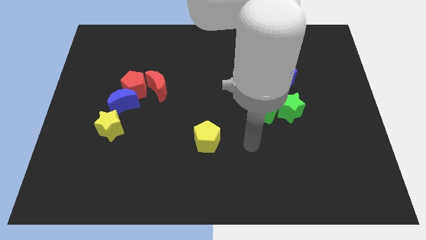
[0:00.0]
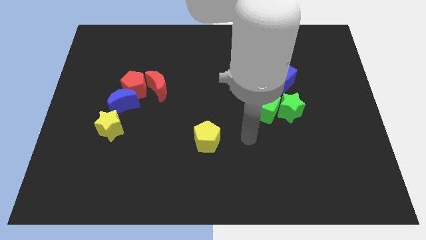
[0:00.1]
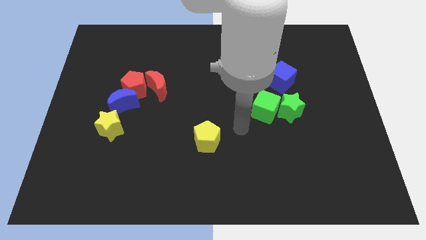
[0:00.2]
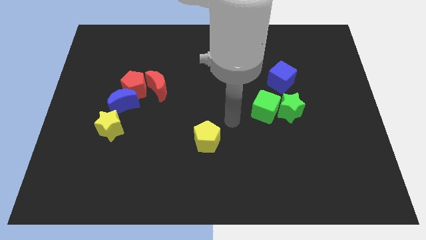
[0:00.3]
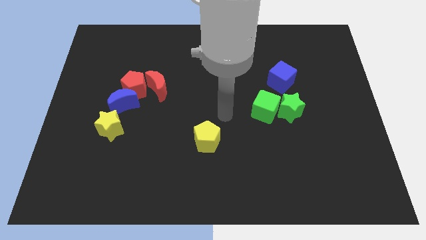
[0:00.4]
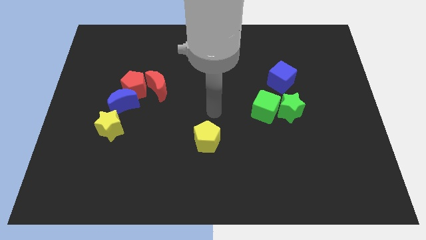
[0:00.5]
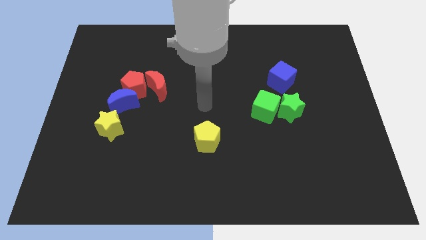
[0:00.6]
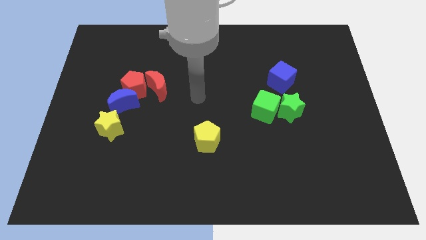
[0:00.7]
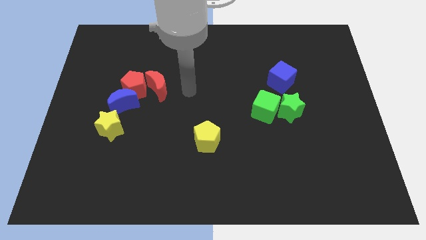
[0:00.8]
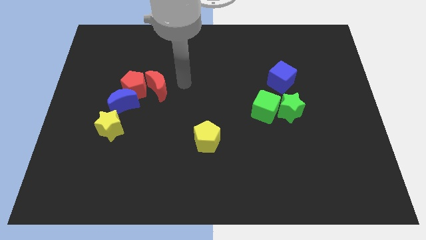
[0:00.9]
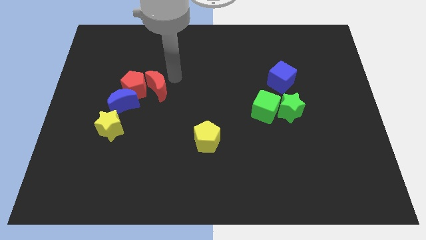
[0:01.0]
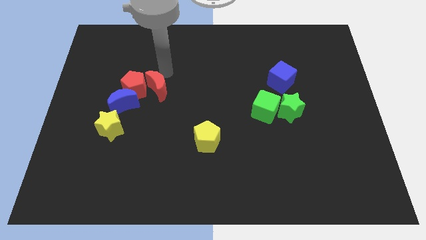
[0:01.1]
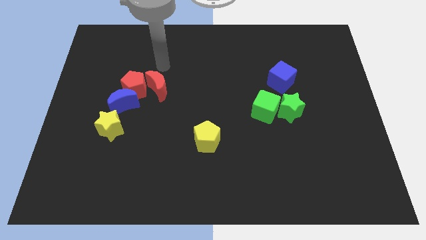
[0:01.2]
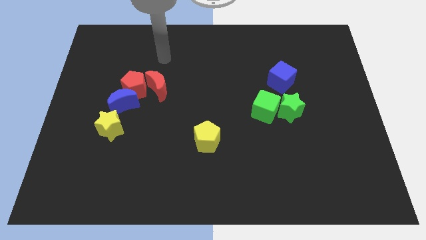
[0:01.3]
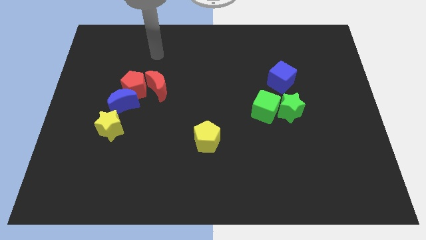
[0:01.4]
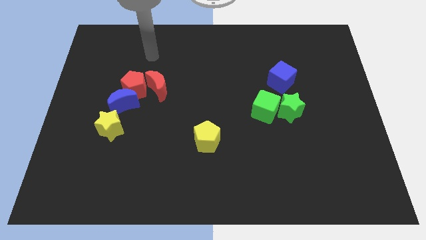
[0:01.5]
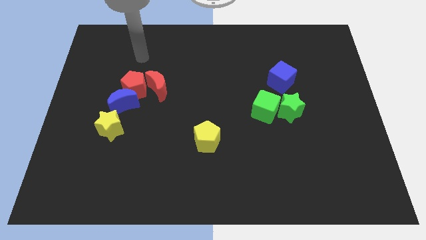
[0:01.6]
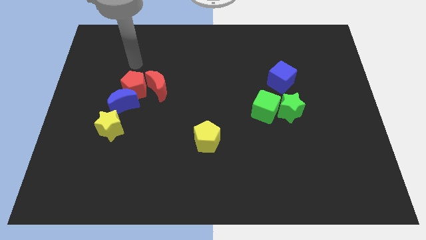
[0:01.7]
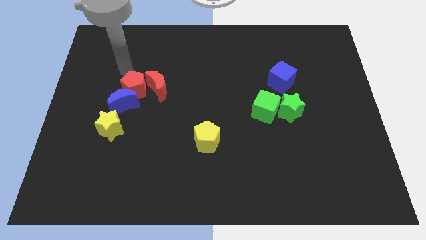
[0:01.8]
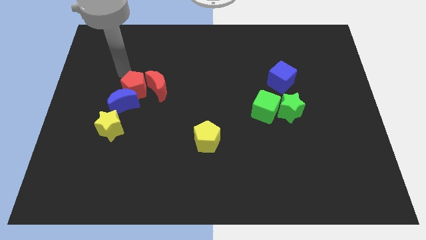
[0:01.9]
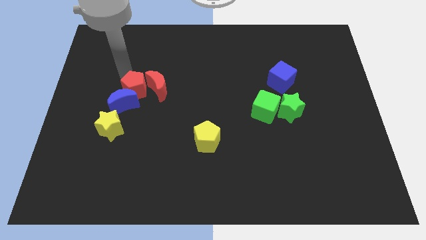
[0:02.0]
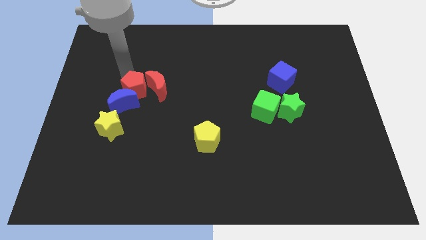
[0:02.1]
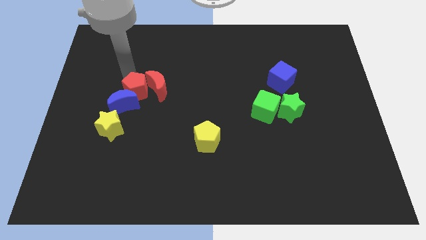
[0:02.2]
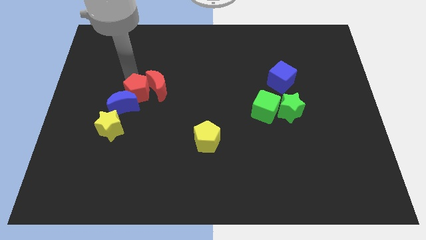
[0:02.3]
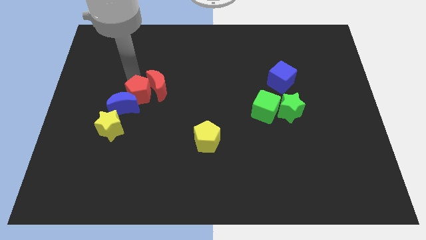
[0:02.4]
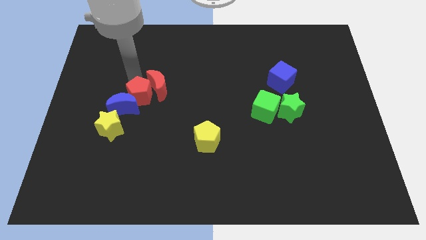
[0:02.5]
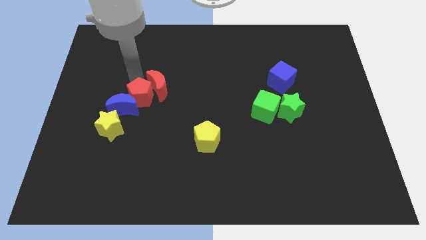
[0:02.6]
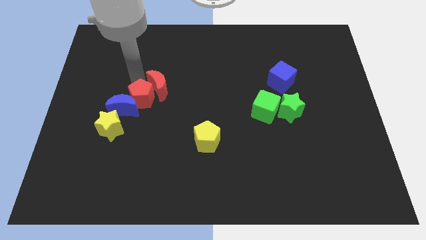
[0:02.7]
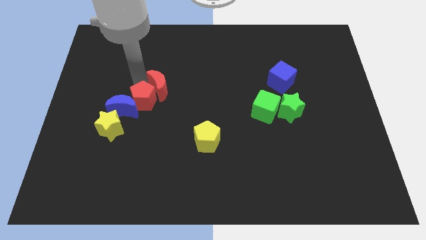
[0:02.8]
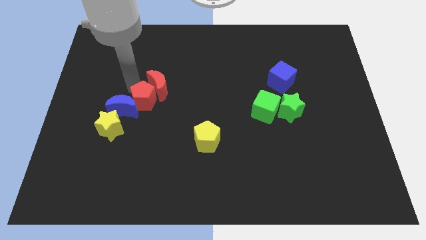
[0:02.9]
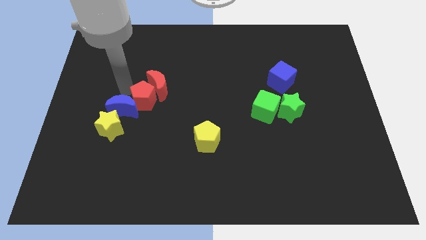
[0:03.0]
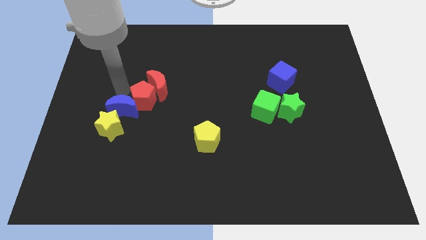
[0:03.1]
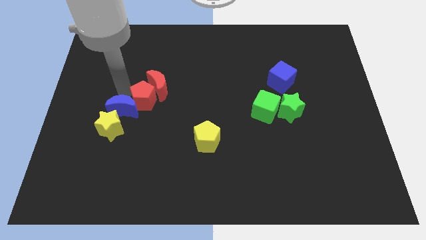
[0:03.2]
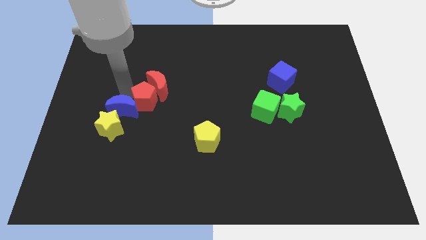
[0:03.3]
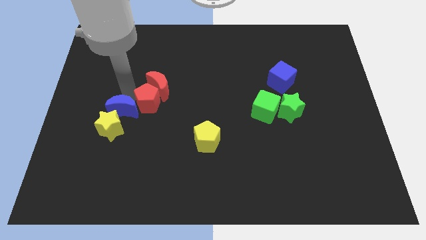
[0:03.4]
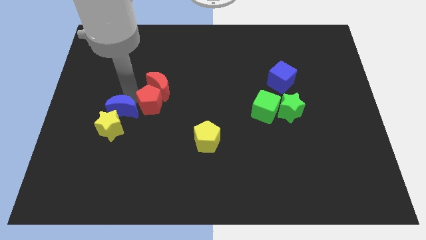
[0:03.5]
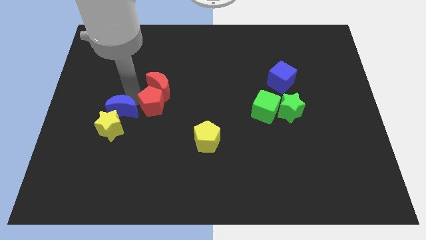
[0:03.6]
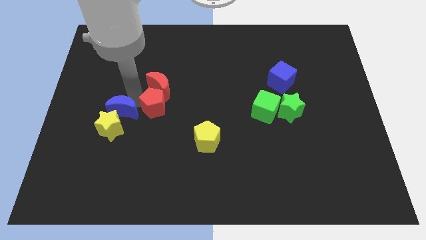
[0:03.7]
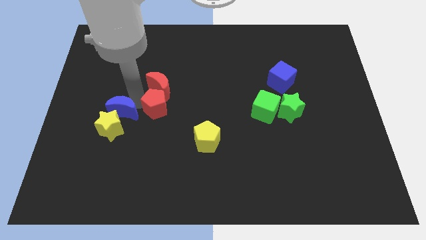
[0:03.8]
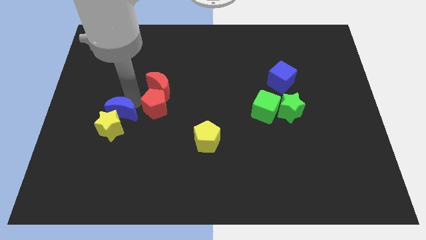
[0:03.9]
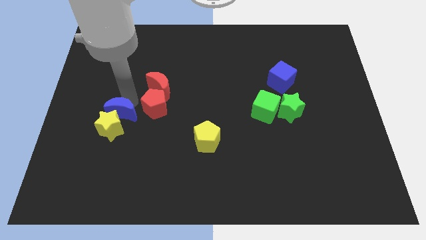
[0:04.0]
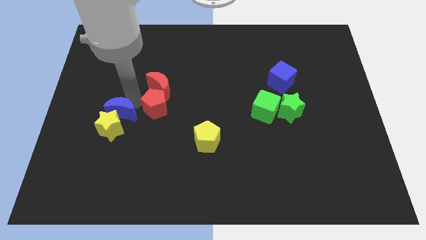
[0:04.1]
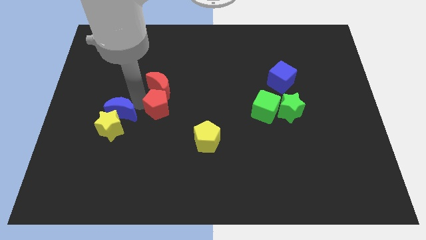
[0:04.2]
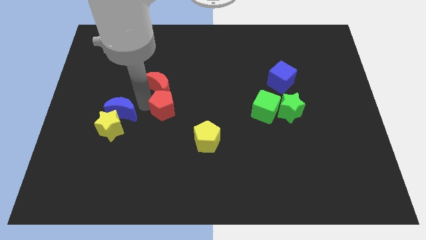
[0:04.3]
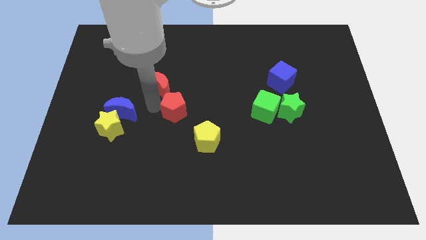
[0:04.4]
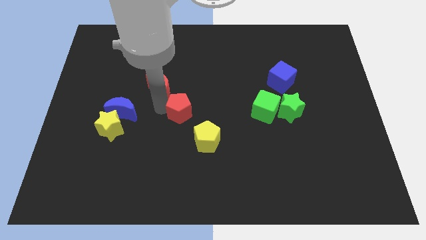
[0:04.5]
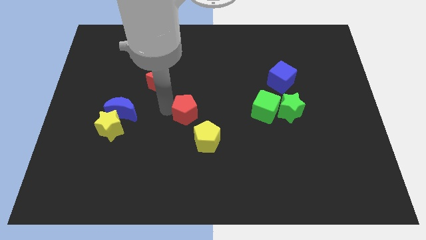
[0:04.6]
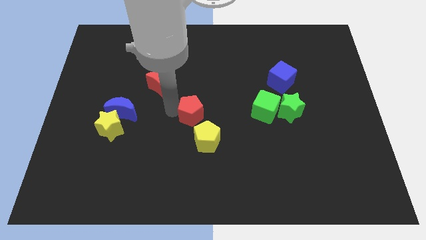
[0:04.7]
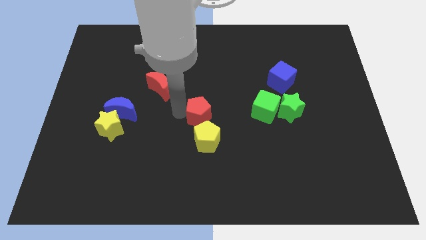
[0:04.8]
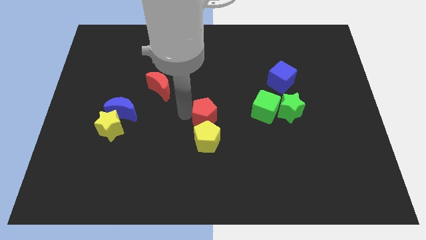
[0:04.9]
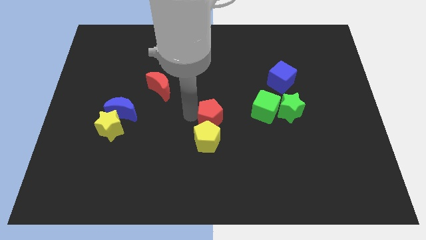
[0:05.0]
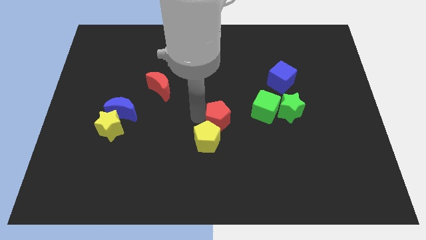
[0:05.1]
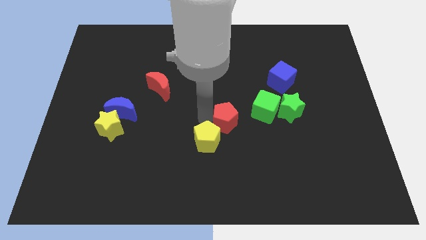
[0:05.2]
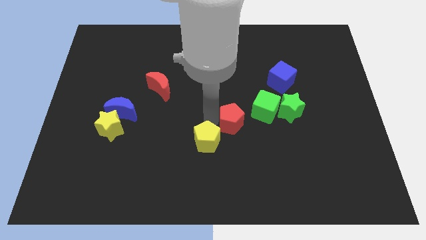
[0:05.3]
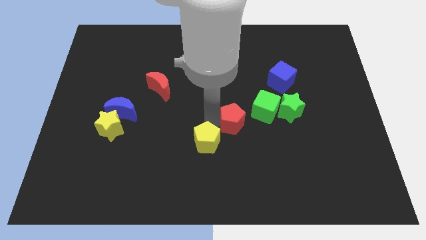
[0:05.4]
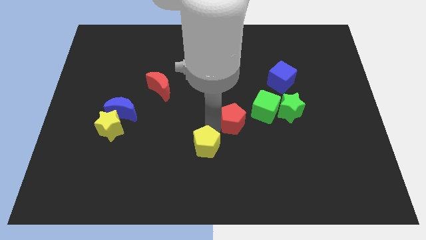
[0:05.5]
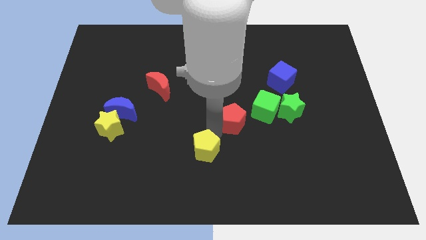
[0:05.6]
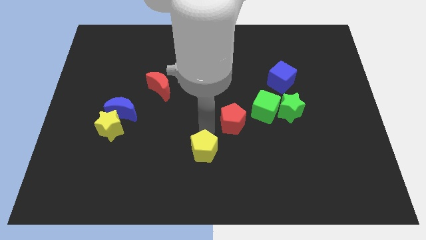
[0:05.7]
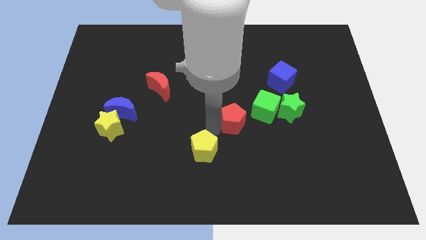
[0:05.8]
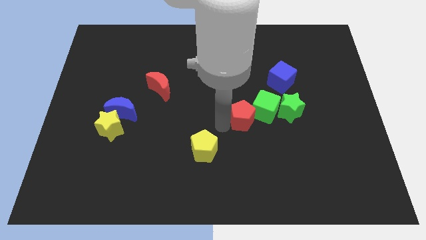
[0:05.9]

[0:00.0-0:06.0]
slide the red pentagon towards the green cube

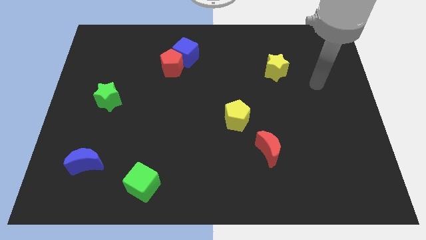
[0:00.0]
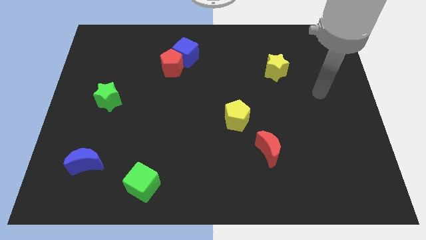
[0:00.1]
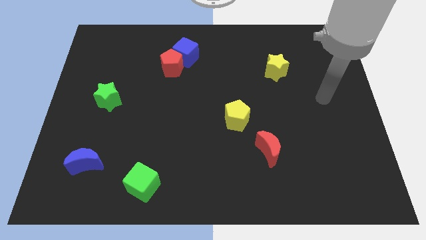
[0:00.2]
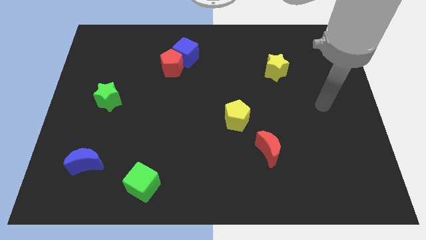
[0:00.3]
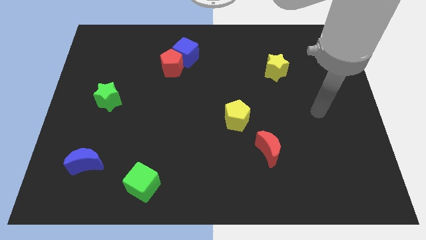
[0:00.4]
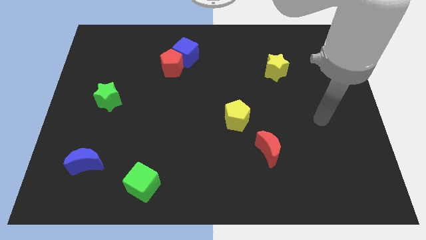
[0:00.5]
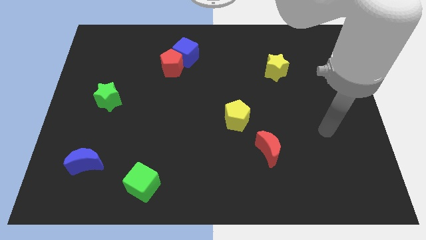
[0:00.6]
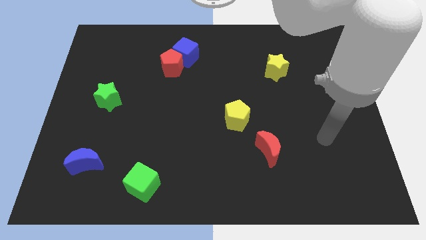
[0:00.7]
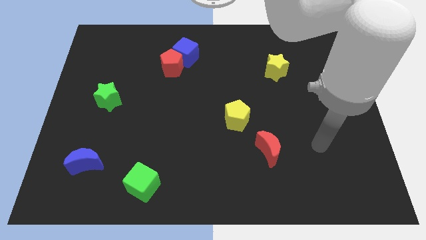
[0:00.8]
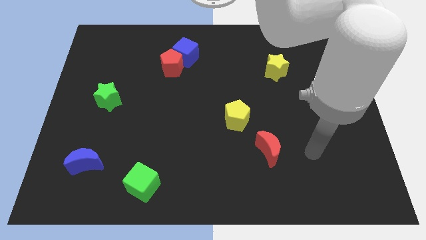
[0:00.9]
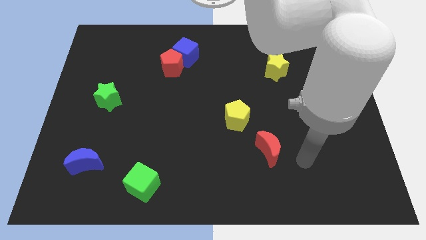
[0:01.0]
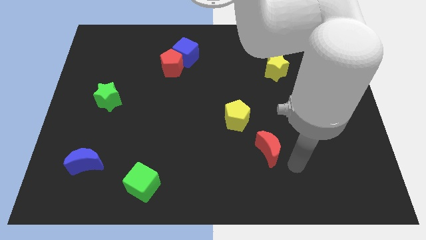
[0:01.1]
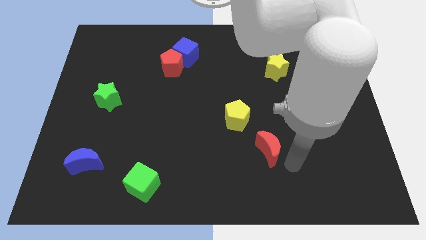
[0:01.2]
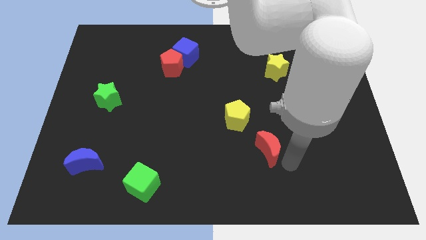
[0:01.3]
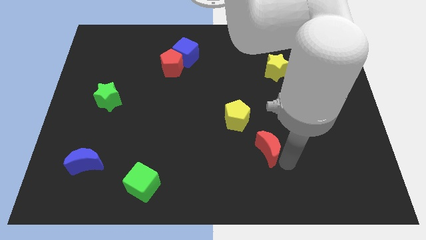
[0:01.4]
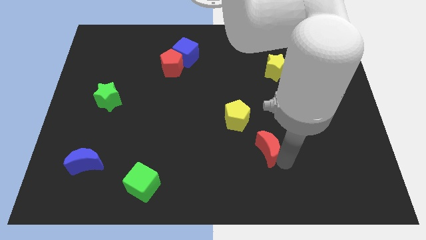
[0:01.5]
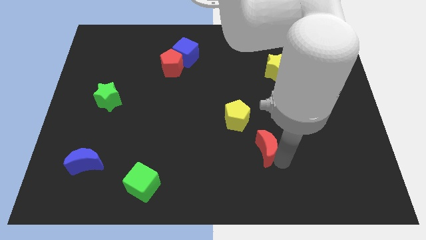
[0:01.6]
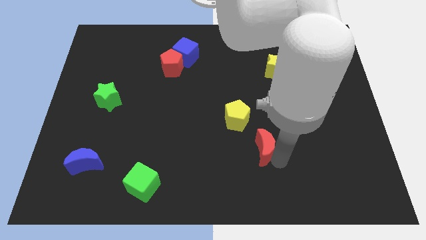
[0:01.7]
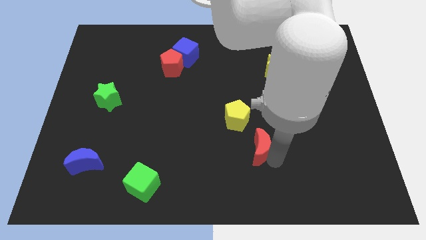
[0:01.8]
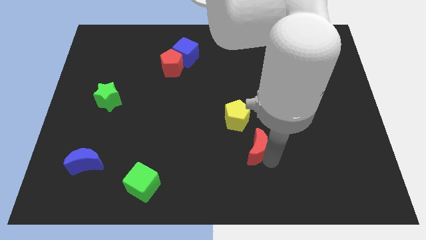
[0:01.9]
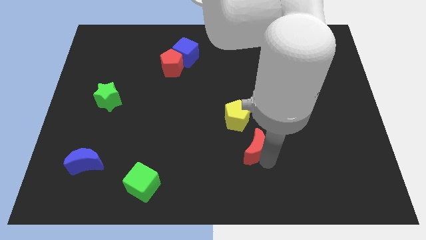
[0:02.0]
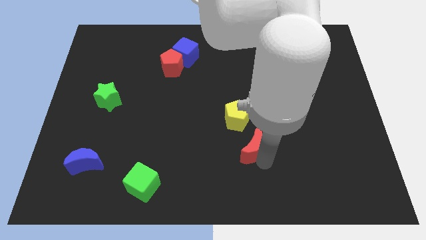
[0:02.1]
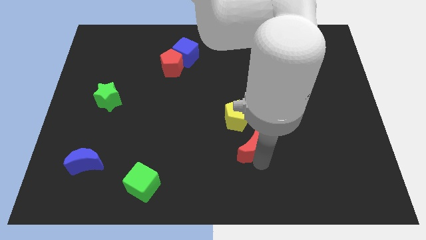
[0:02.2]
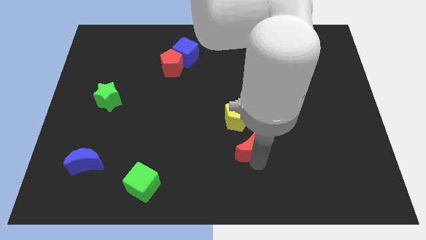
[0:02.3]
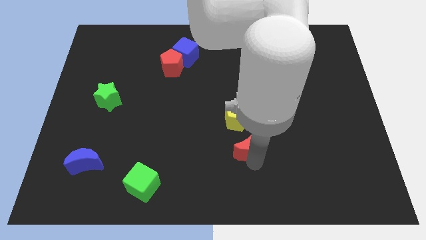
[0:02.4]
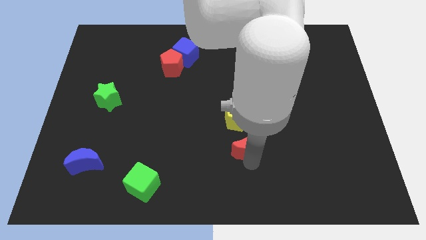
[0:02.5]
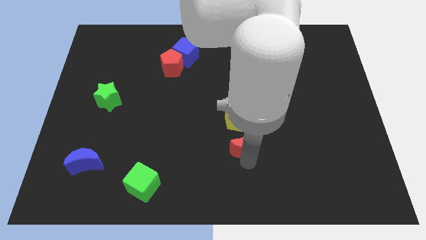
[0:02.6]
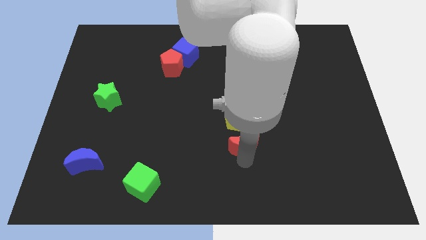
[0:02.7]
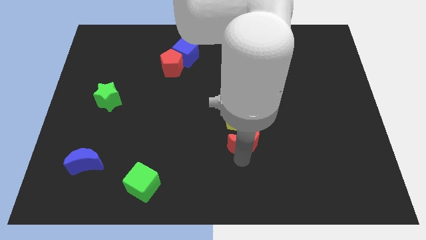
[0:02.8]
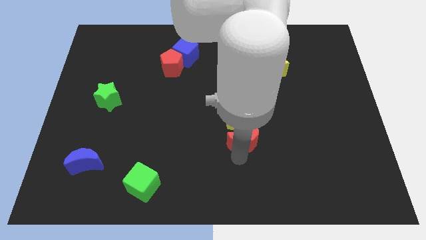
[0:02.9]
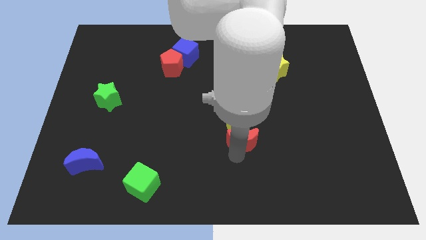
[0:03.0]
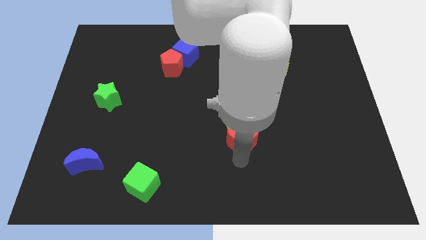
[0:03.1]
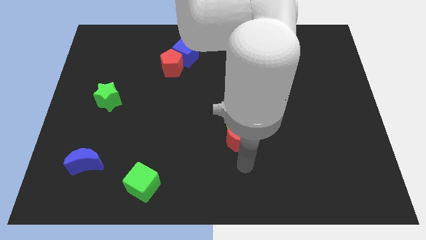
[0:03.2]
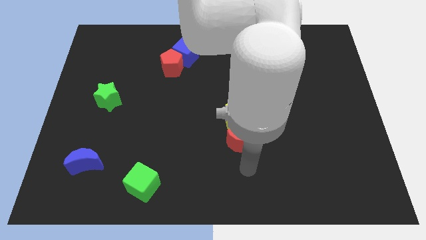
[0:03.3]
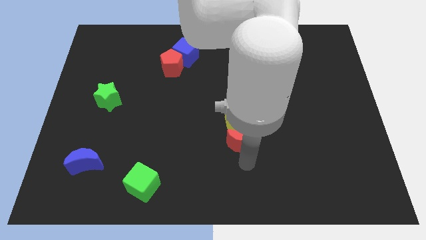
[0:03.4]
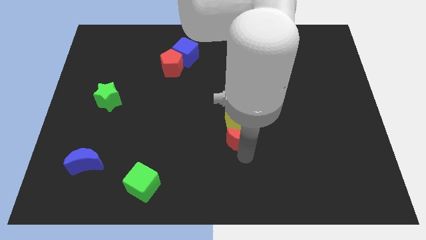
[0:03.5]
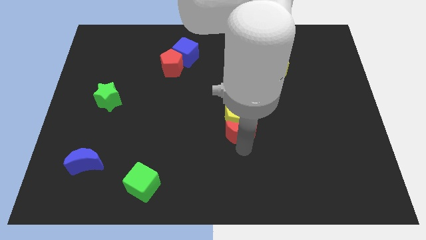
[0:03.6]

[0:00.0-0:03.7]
move the red moon towards the yellow pentagon
